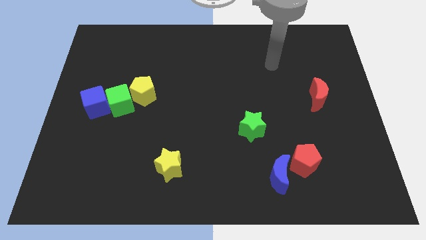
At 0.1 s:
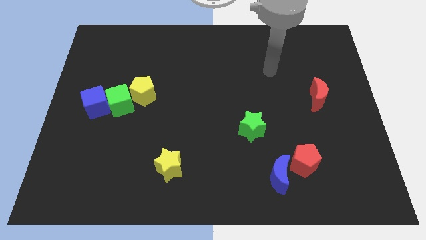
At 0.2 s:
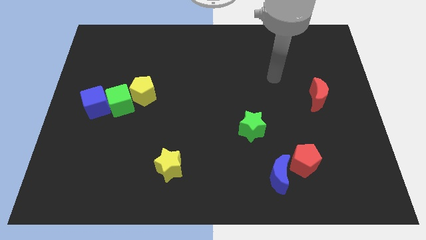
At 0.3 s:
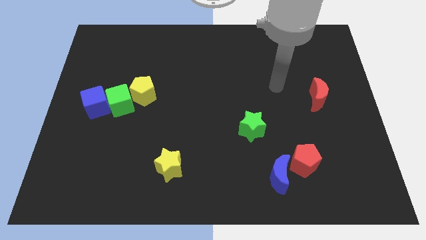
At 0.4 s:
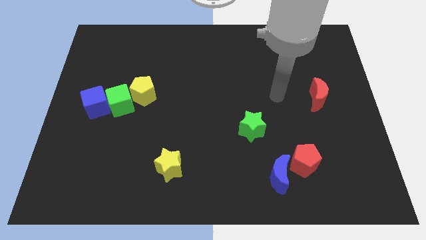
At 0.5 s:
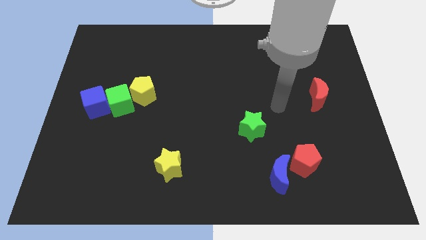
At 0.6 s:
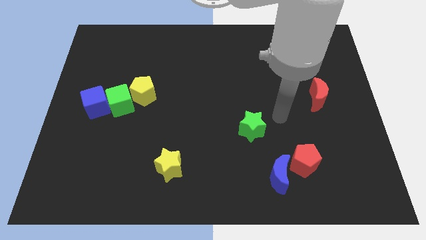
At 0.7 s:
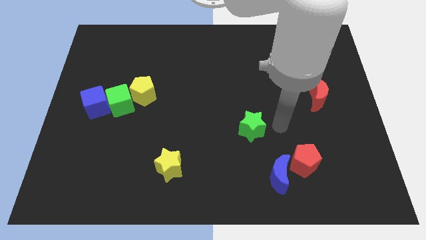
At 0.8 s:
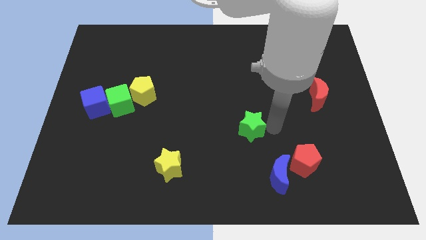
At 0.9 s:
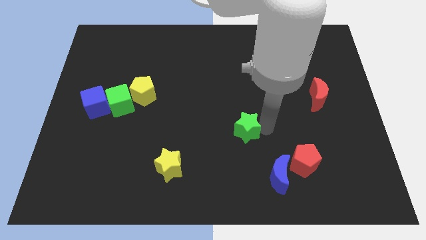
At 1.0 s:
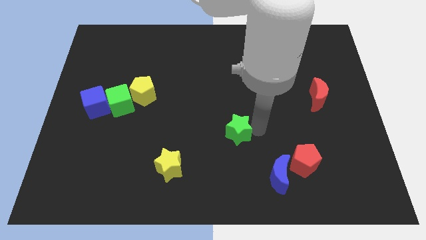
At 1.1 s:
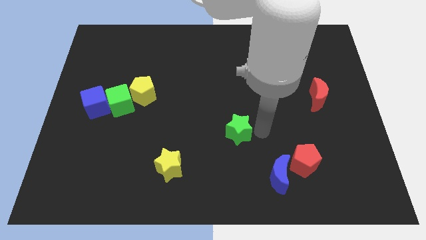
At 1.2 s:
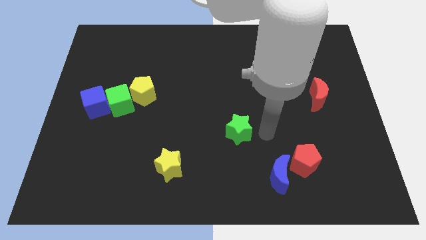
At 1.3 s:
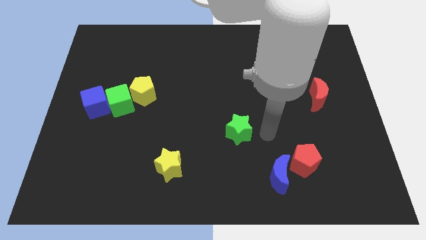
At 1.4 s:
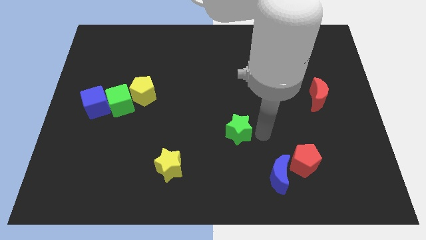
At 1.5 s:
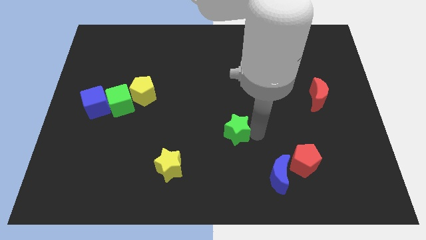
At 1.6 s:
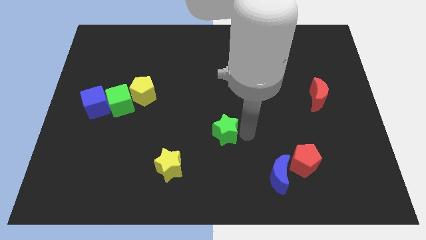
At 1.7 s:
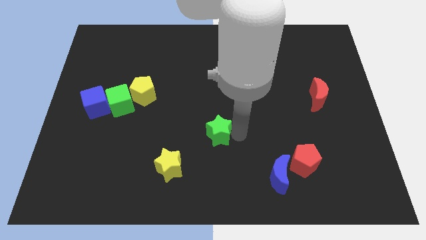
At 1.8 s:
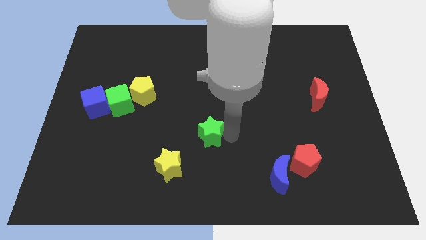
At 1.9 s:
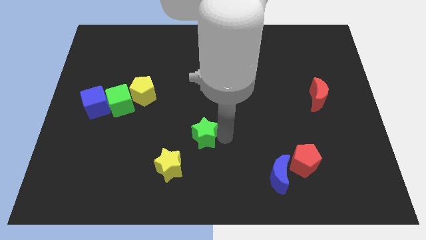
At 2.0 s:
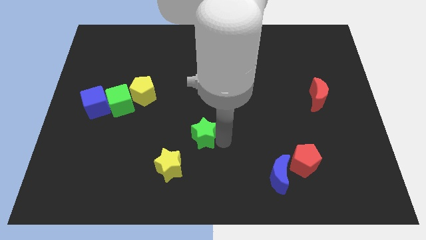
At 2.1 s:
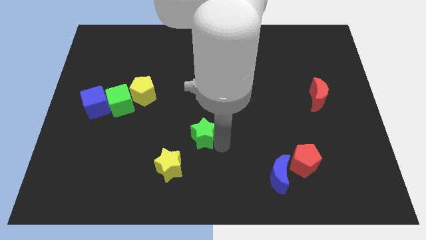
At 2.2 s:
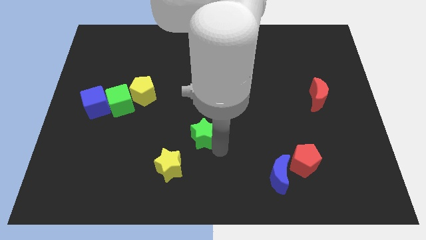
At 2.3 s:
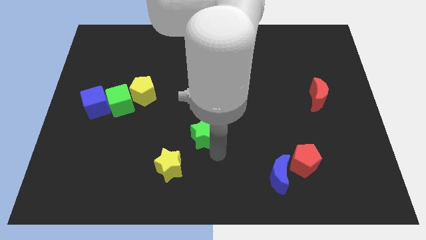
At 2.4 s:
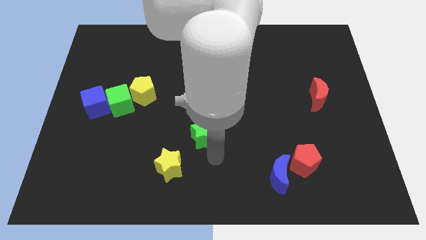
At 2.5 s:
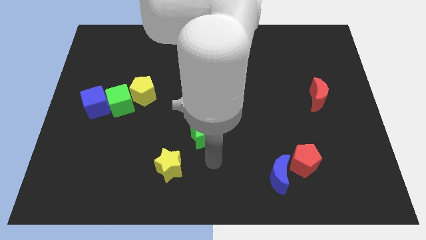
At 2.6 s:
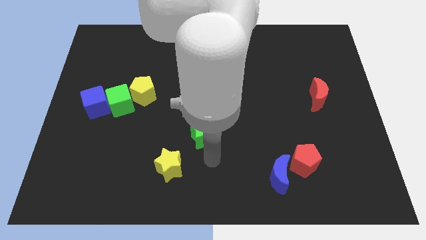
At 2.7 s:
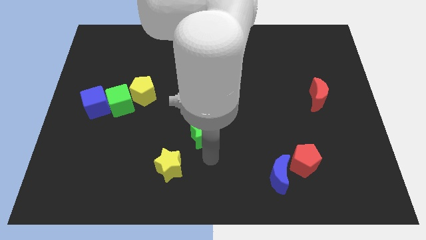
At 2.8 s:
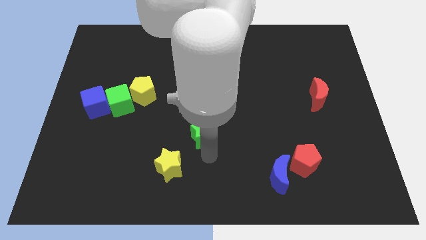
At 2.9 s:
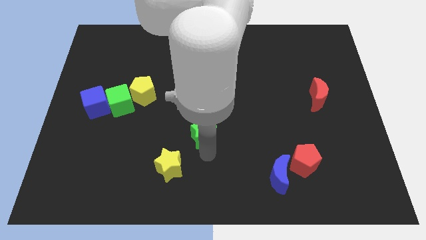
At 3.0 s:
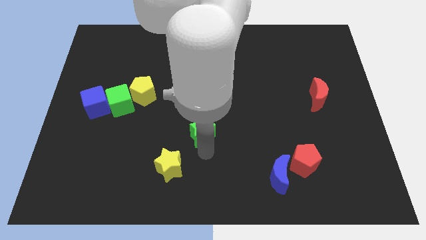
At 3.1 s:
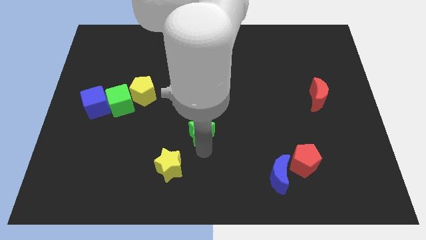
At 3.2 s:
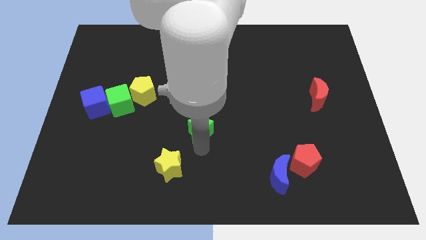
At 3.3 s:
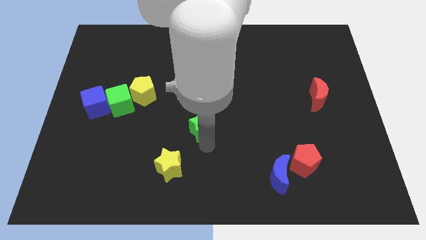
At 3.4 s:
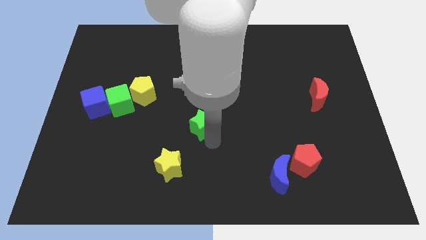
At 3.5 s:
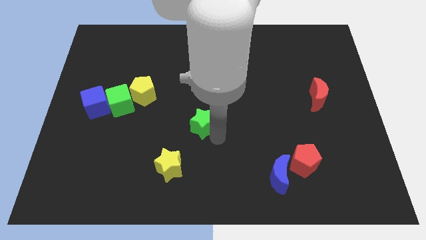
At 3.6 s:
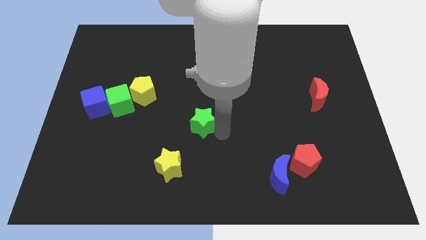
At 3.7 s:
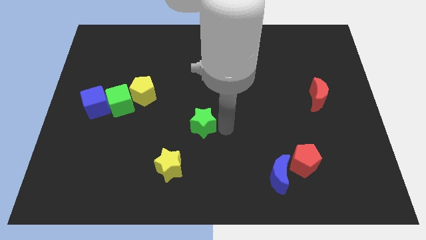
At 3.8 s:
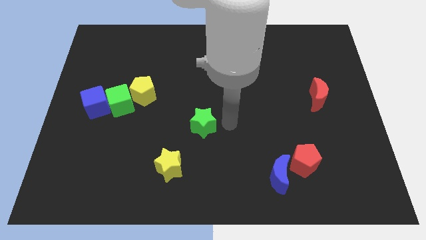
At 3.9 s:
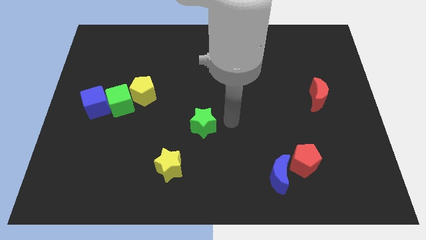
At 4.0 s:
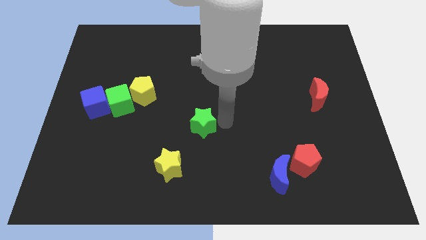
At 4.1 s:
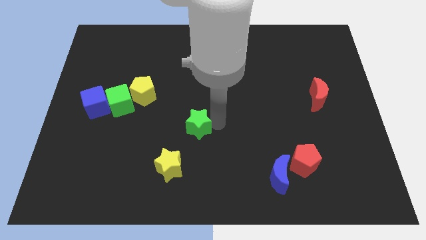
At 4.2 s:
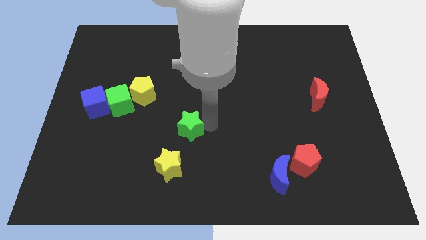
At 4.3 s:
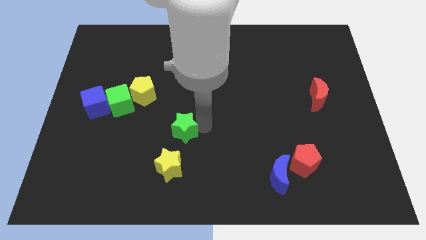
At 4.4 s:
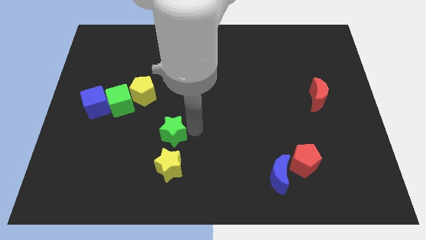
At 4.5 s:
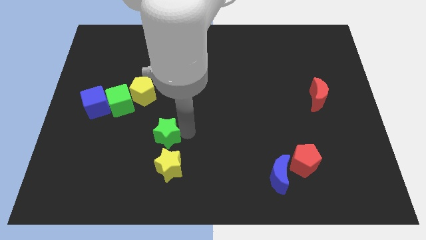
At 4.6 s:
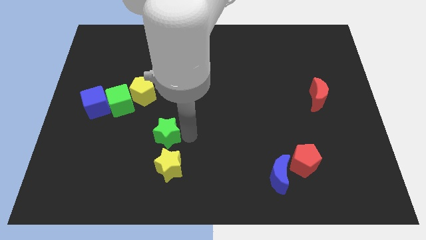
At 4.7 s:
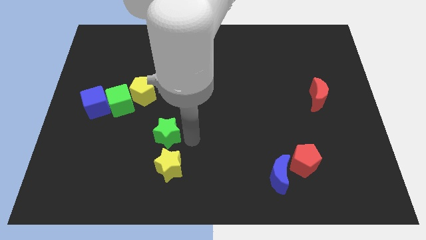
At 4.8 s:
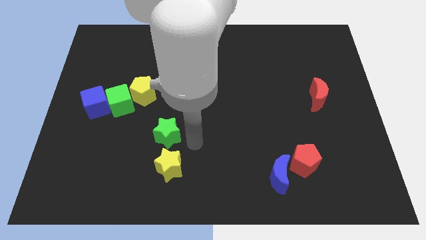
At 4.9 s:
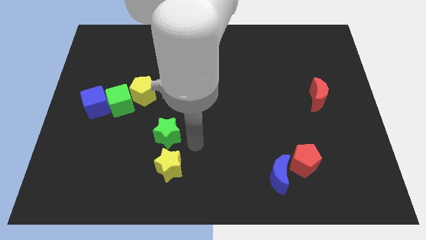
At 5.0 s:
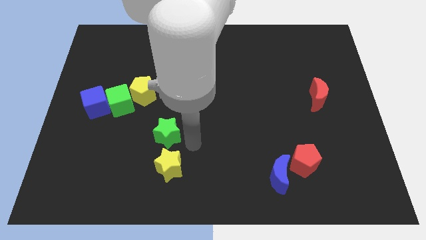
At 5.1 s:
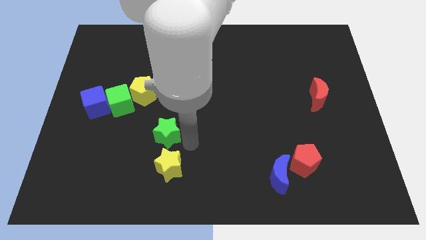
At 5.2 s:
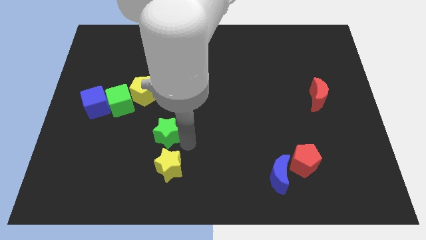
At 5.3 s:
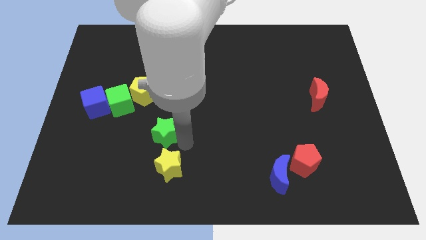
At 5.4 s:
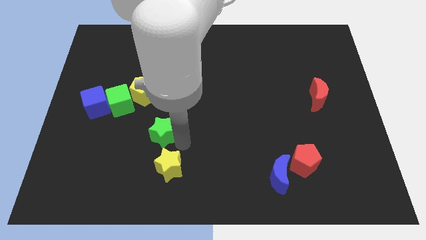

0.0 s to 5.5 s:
push the green star left

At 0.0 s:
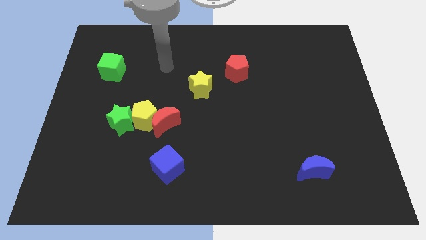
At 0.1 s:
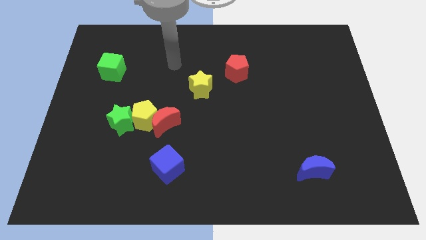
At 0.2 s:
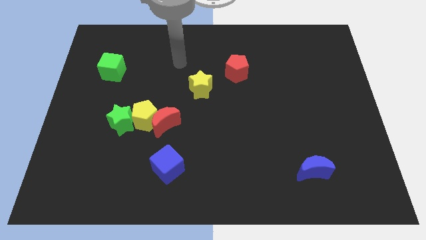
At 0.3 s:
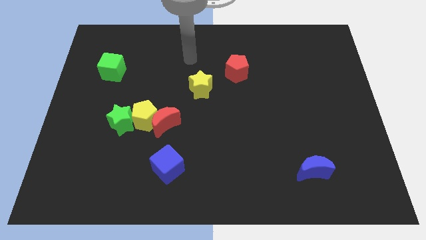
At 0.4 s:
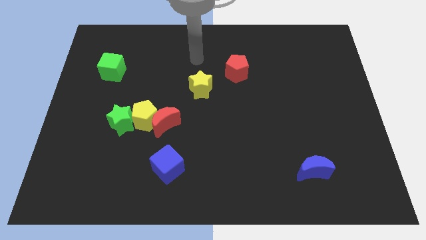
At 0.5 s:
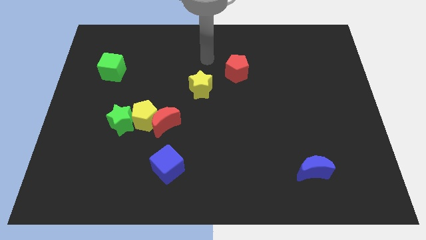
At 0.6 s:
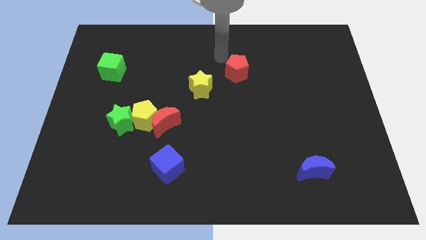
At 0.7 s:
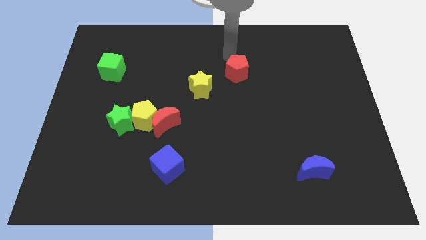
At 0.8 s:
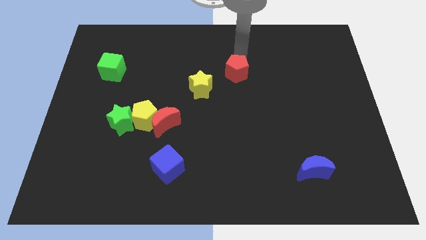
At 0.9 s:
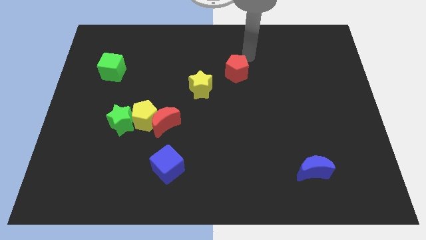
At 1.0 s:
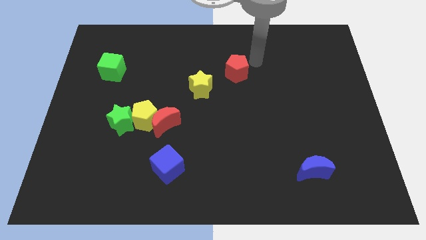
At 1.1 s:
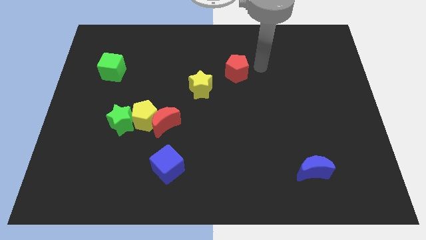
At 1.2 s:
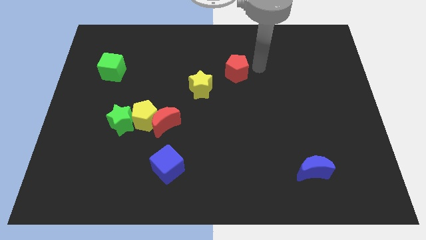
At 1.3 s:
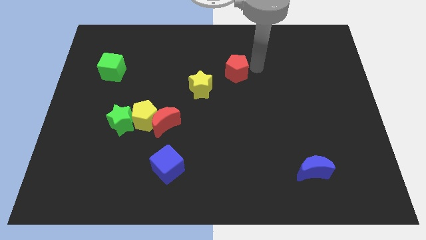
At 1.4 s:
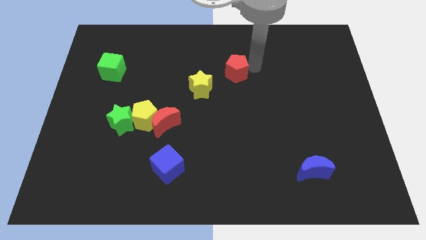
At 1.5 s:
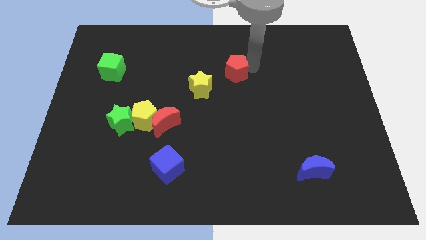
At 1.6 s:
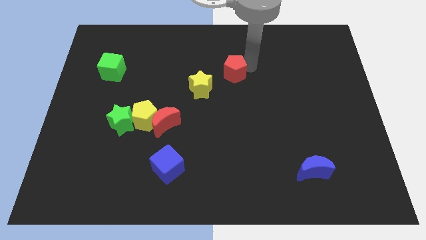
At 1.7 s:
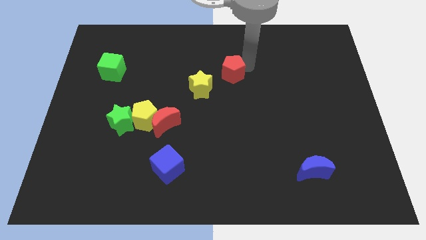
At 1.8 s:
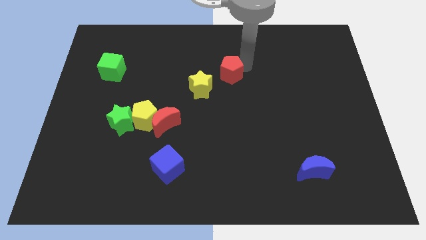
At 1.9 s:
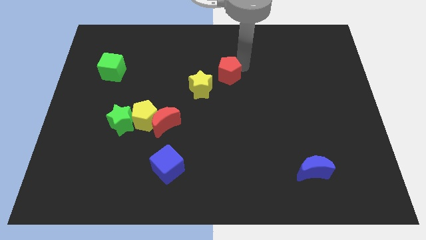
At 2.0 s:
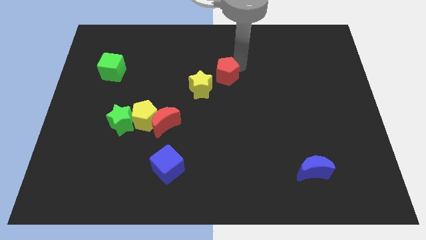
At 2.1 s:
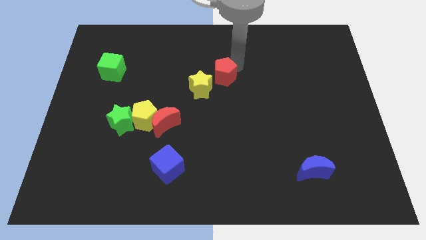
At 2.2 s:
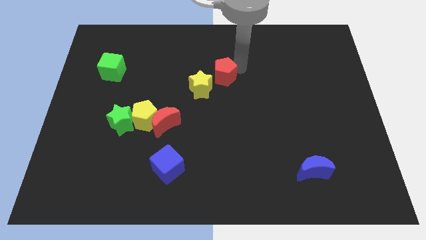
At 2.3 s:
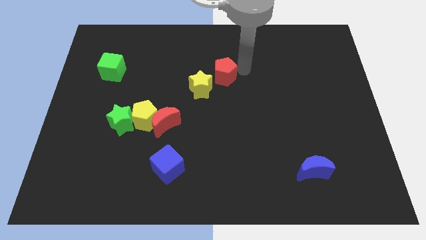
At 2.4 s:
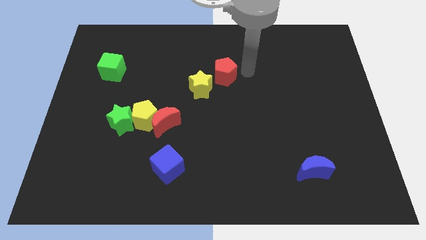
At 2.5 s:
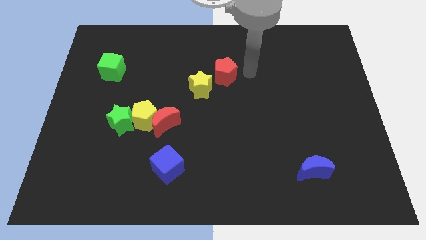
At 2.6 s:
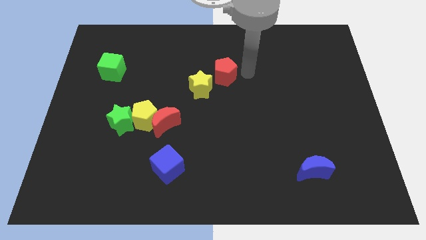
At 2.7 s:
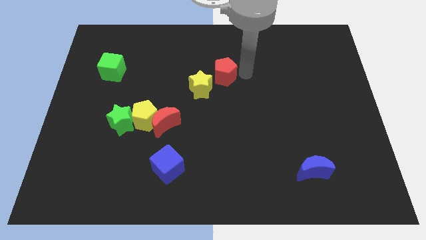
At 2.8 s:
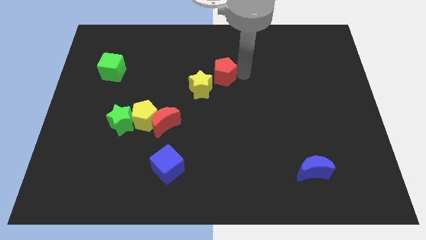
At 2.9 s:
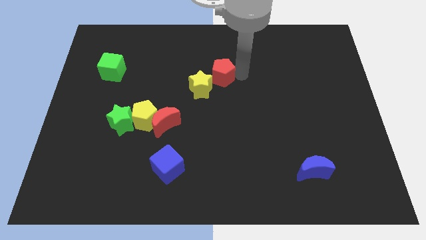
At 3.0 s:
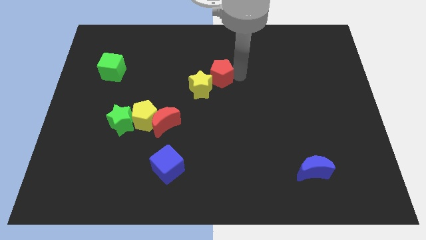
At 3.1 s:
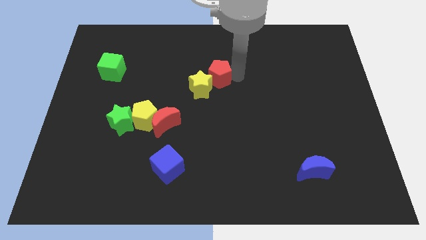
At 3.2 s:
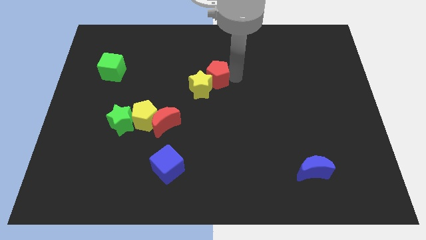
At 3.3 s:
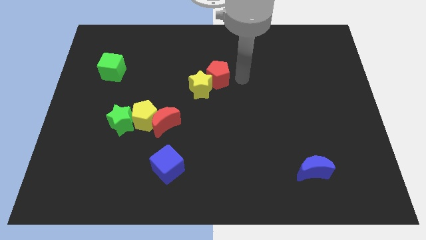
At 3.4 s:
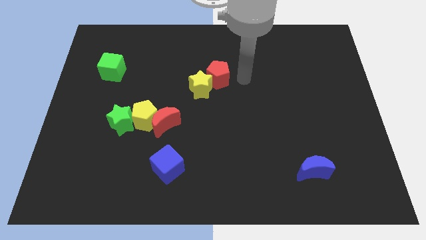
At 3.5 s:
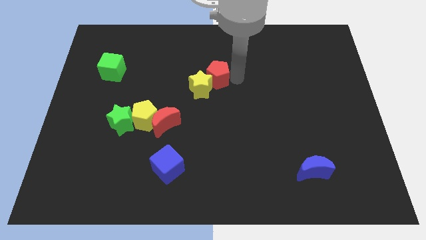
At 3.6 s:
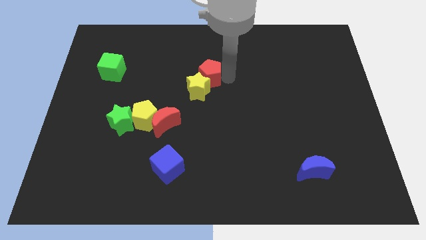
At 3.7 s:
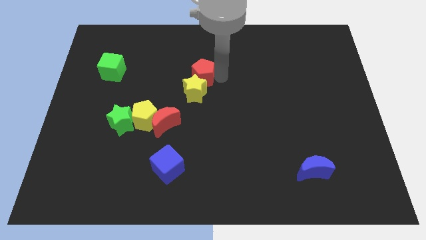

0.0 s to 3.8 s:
slightly slide the red pentagon left
